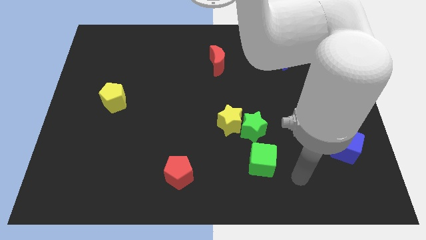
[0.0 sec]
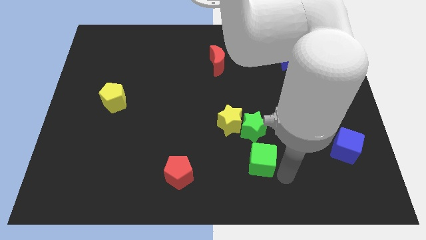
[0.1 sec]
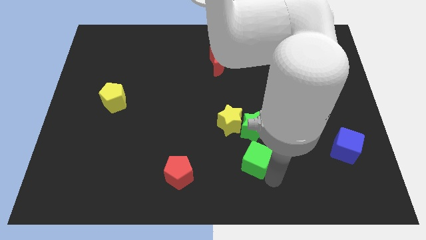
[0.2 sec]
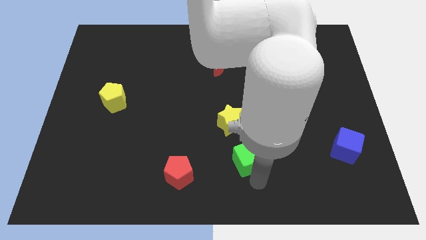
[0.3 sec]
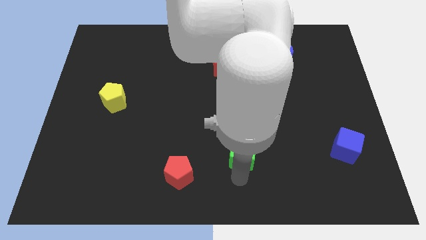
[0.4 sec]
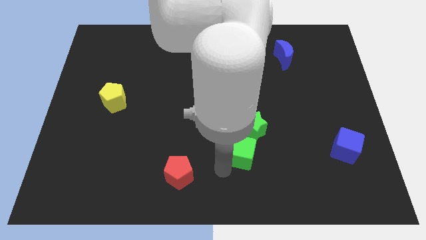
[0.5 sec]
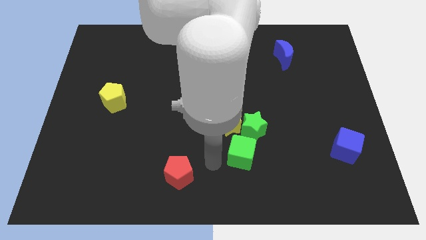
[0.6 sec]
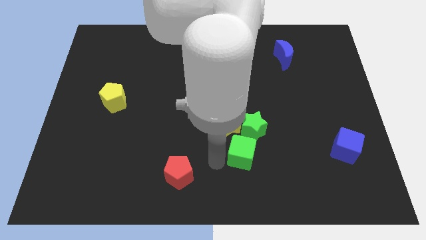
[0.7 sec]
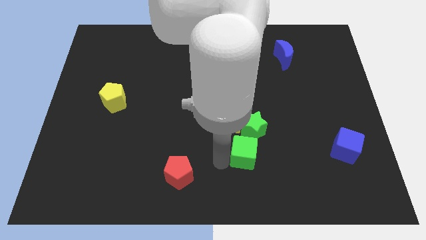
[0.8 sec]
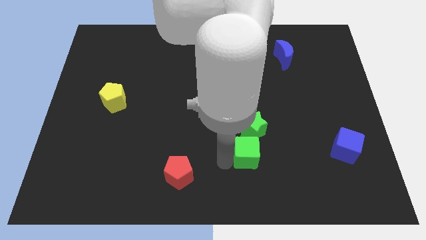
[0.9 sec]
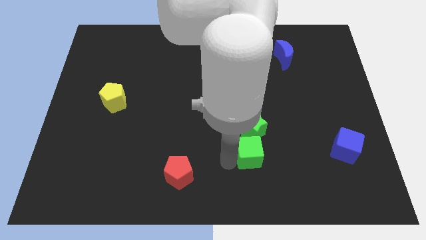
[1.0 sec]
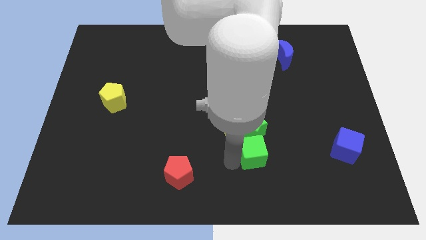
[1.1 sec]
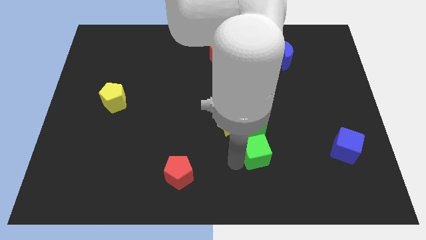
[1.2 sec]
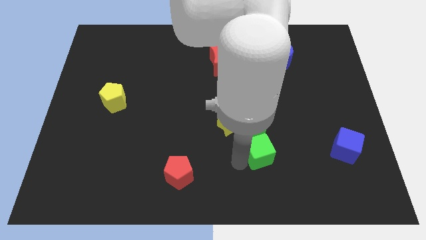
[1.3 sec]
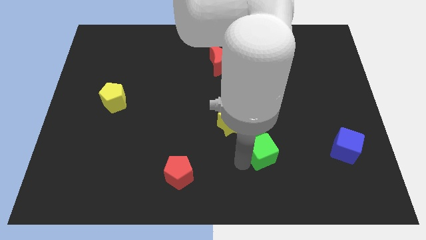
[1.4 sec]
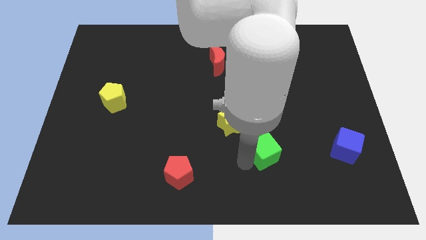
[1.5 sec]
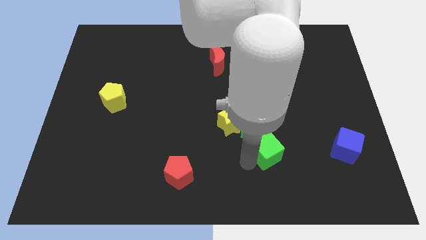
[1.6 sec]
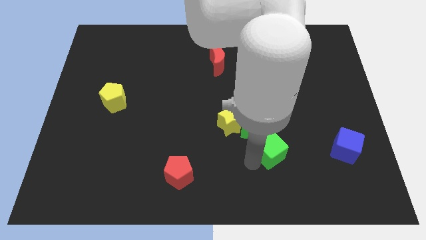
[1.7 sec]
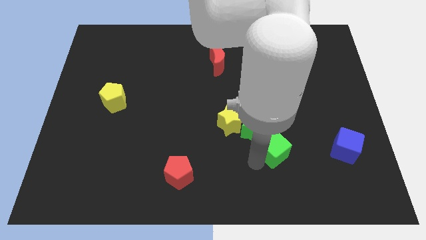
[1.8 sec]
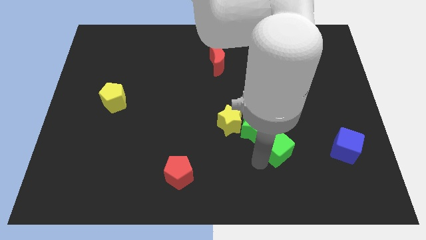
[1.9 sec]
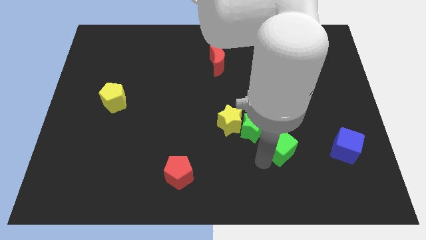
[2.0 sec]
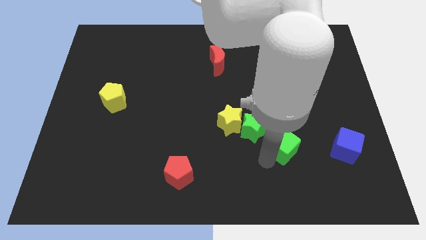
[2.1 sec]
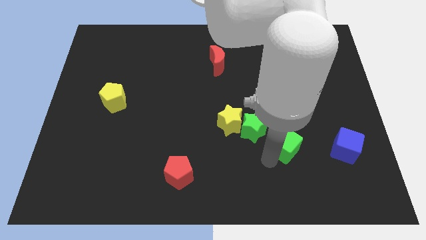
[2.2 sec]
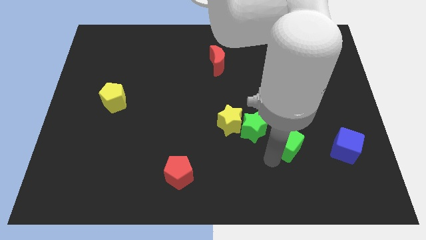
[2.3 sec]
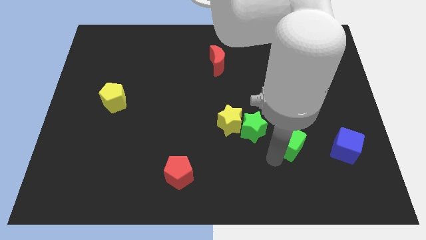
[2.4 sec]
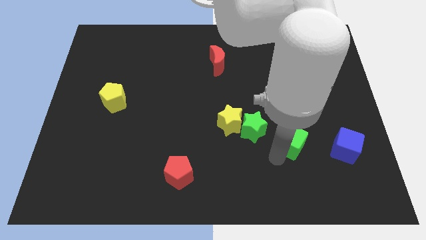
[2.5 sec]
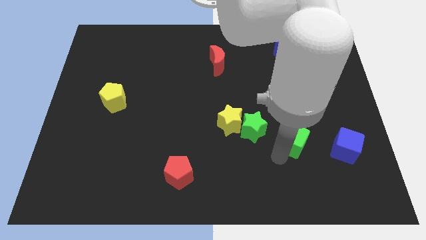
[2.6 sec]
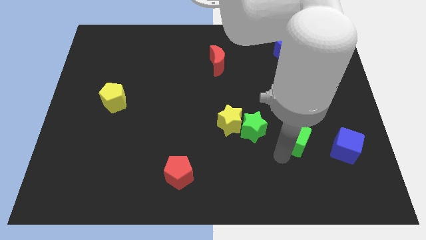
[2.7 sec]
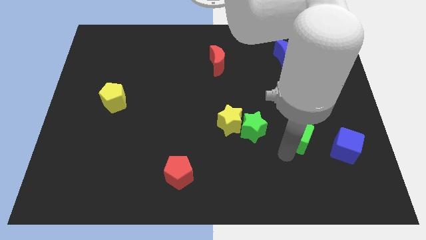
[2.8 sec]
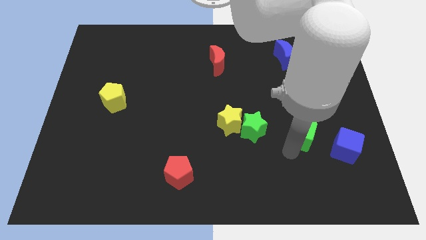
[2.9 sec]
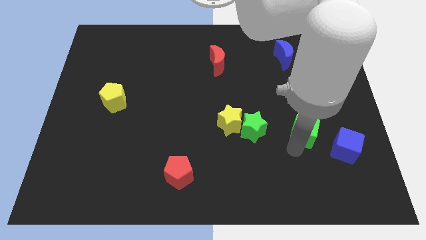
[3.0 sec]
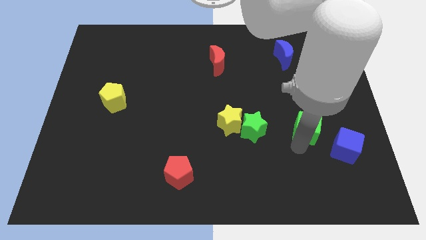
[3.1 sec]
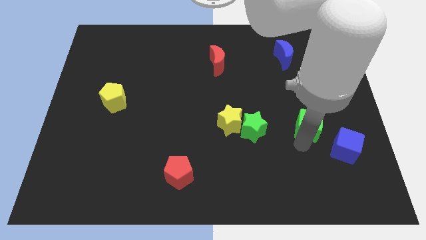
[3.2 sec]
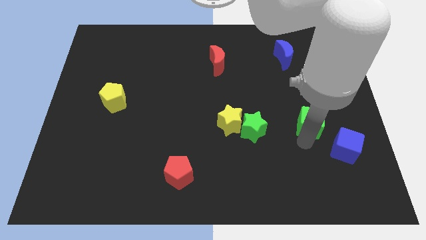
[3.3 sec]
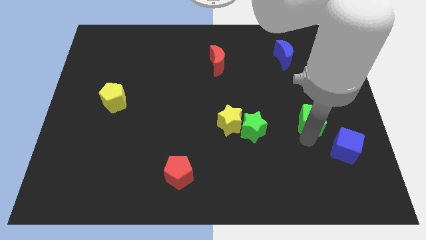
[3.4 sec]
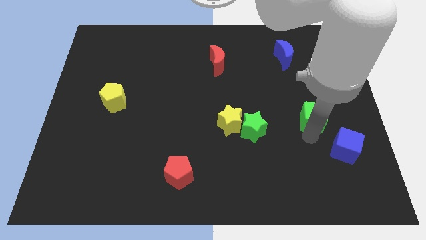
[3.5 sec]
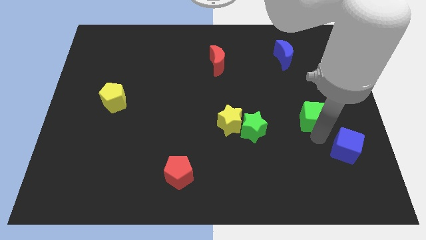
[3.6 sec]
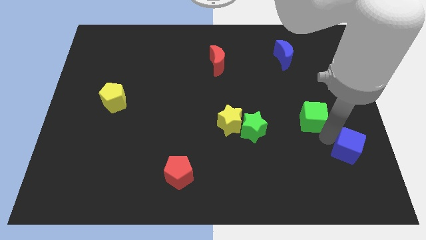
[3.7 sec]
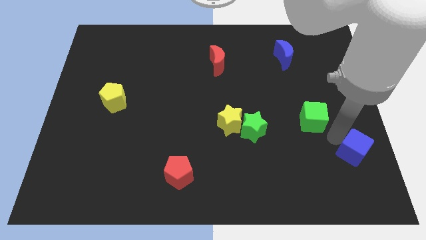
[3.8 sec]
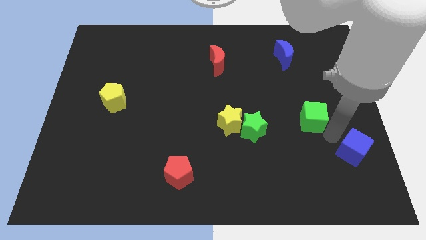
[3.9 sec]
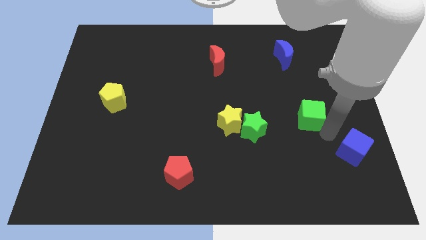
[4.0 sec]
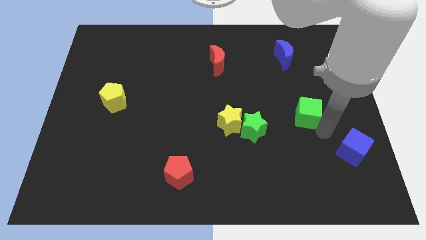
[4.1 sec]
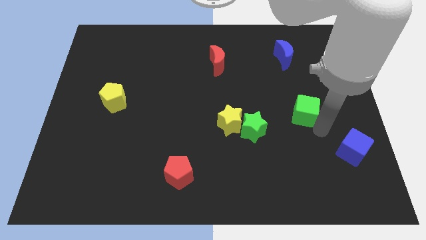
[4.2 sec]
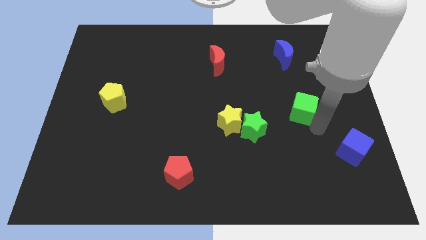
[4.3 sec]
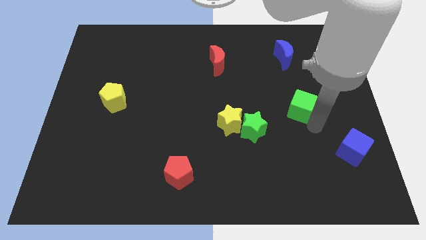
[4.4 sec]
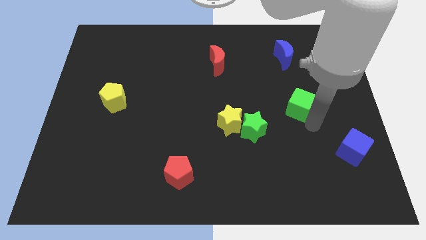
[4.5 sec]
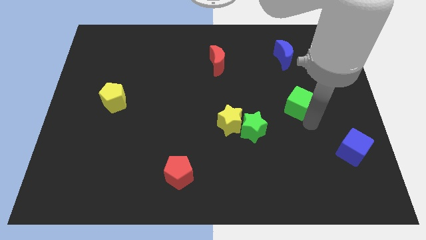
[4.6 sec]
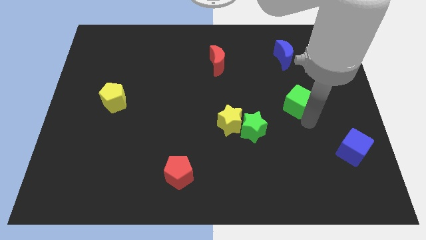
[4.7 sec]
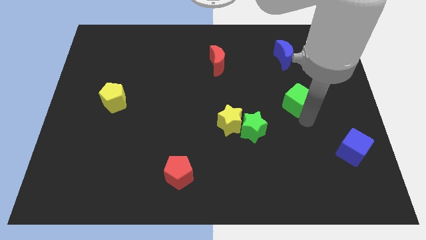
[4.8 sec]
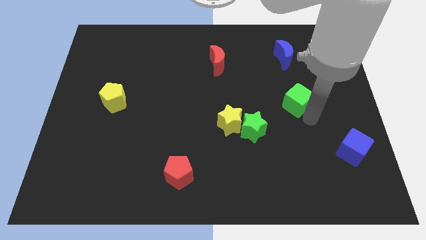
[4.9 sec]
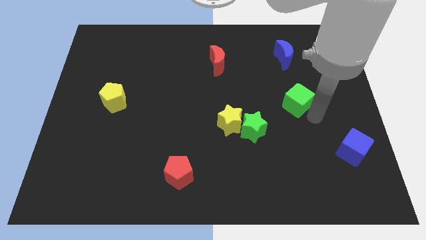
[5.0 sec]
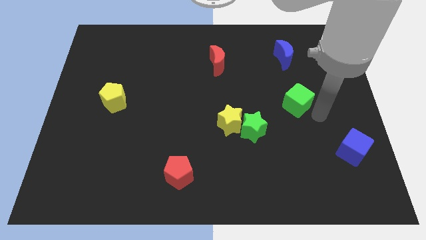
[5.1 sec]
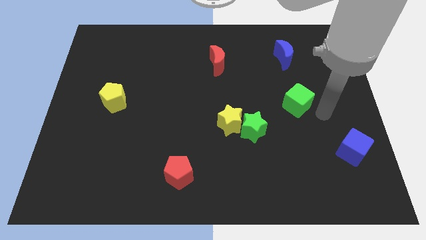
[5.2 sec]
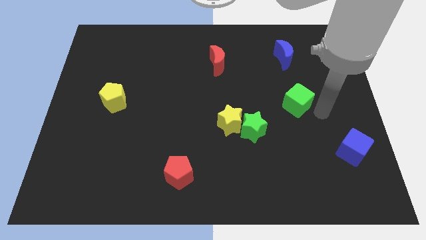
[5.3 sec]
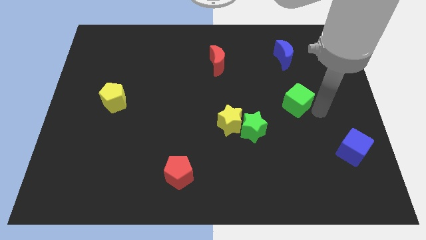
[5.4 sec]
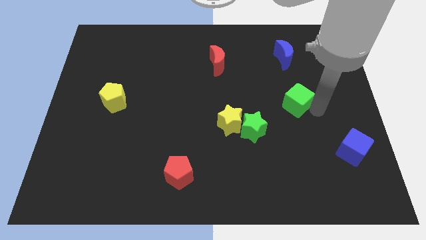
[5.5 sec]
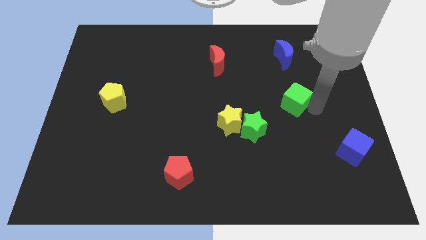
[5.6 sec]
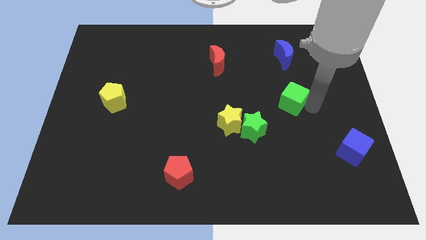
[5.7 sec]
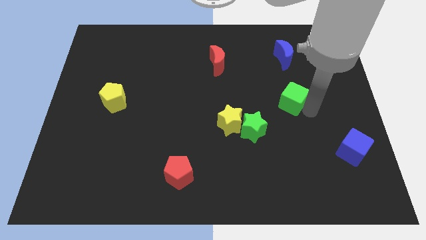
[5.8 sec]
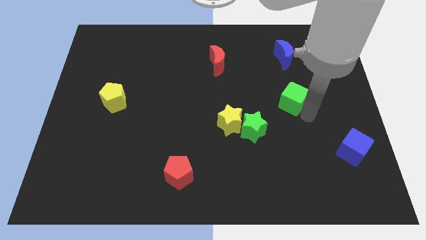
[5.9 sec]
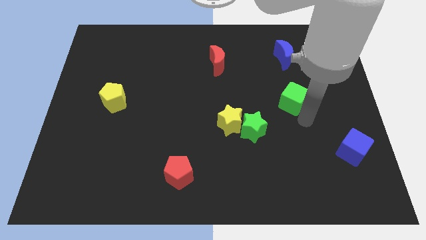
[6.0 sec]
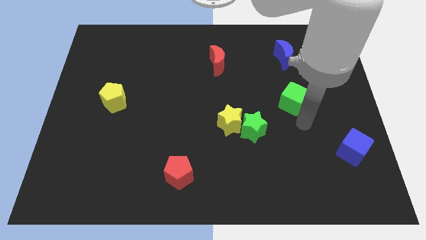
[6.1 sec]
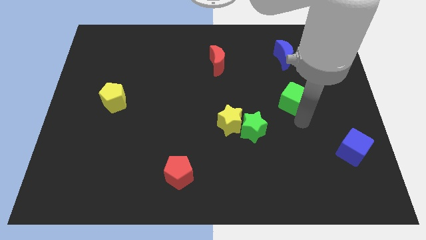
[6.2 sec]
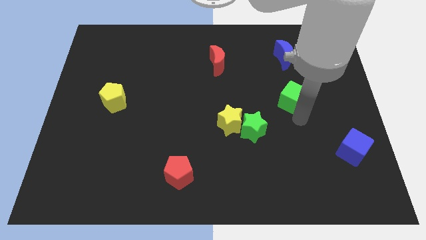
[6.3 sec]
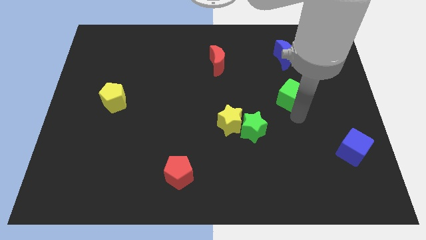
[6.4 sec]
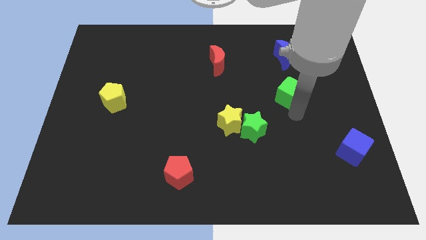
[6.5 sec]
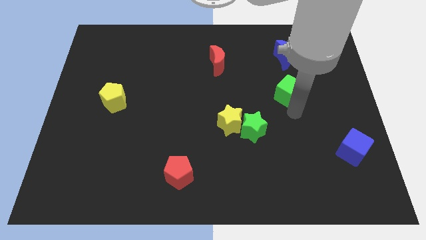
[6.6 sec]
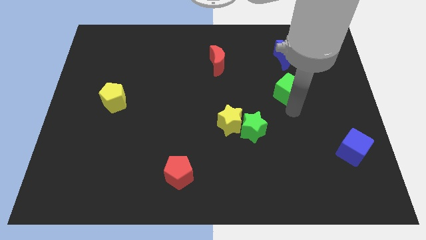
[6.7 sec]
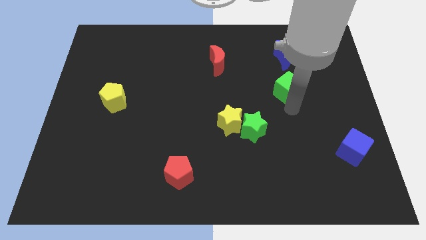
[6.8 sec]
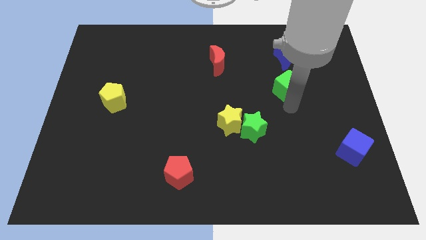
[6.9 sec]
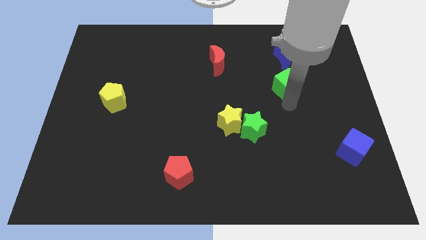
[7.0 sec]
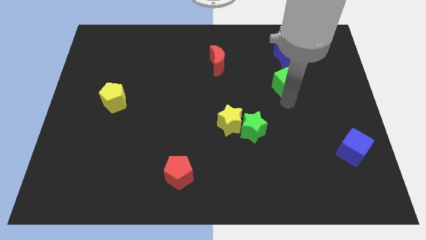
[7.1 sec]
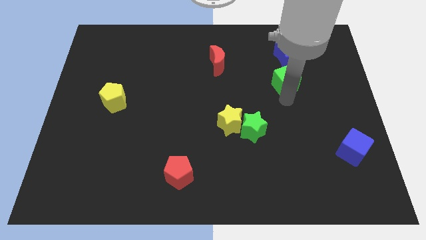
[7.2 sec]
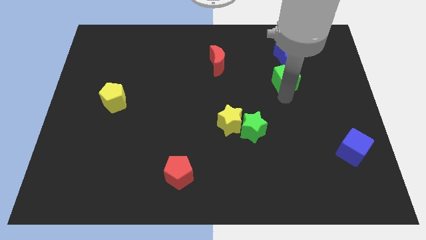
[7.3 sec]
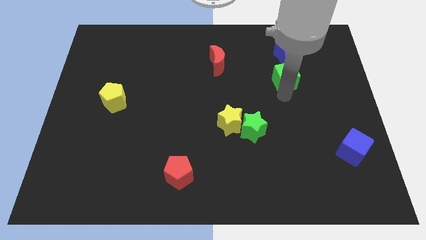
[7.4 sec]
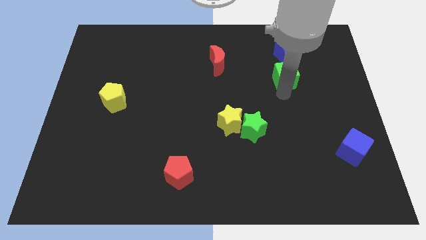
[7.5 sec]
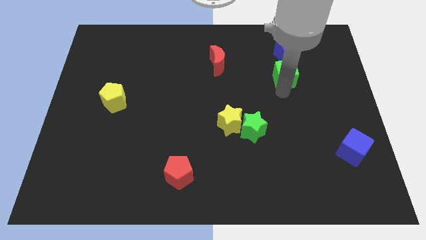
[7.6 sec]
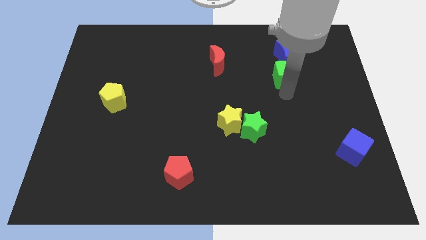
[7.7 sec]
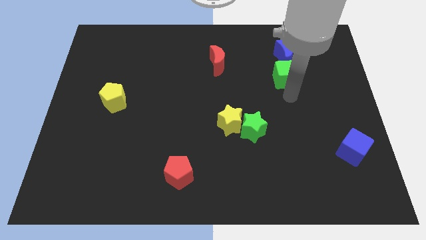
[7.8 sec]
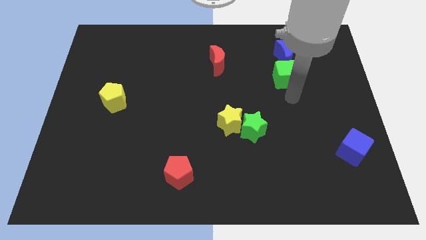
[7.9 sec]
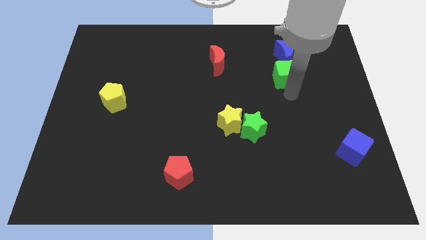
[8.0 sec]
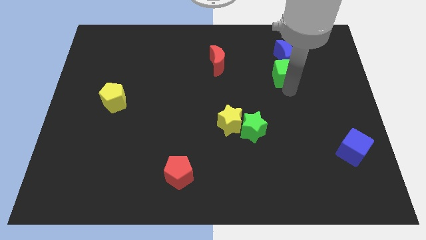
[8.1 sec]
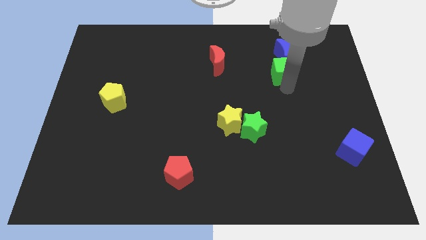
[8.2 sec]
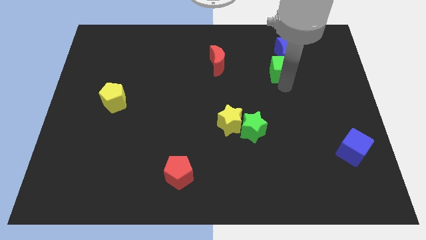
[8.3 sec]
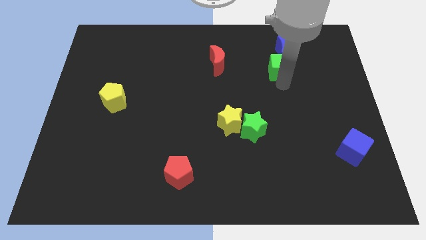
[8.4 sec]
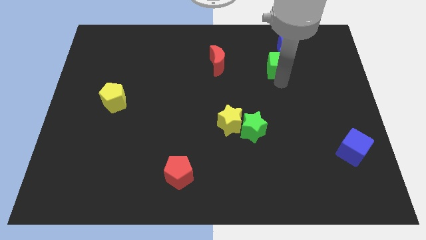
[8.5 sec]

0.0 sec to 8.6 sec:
put the green cube next to the blue moon
